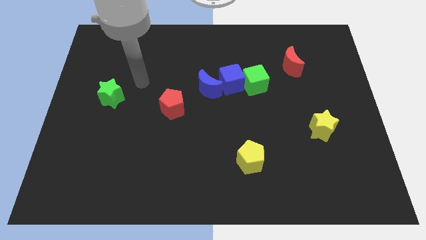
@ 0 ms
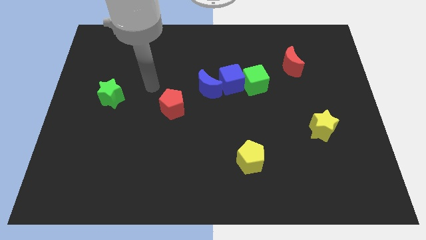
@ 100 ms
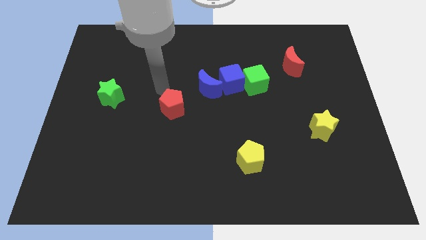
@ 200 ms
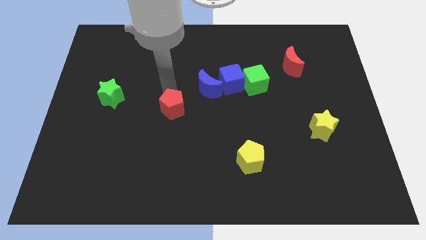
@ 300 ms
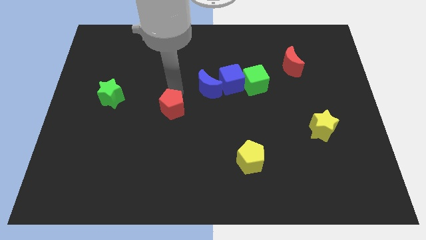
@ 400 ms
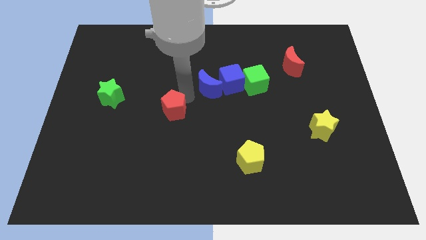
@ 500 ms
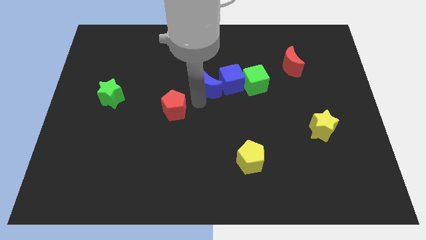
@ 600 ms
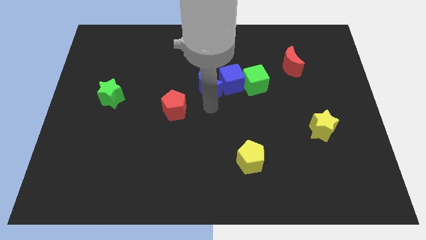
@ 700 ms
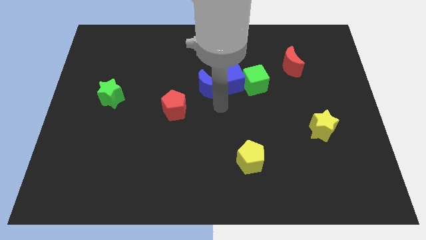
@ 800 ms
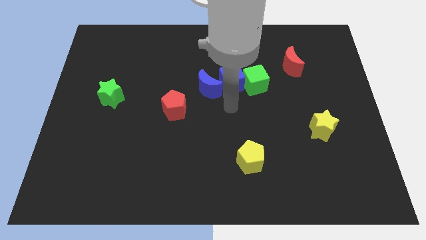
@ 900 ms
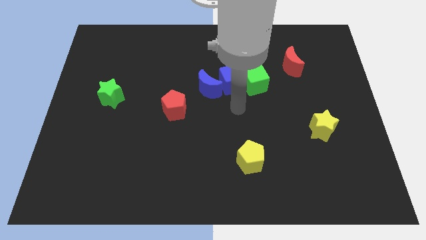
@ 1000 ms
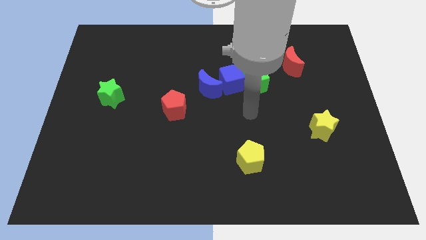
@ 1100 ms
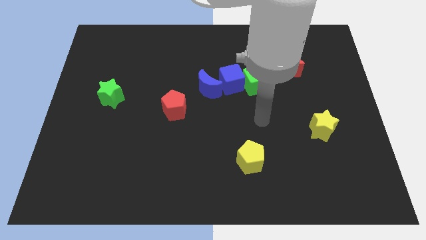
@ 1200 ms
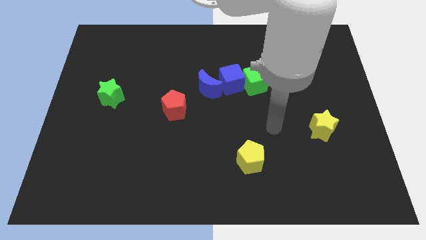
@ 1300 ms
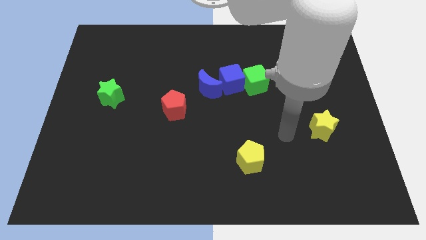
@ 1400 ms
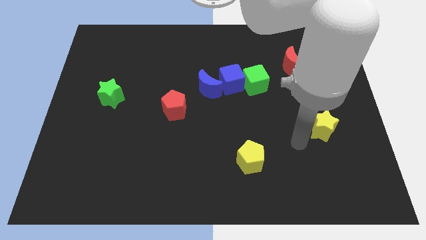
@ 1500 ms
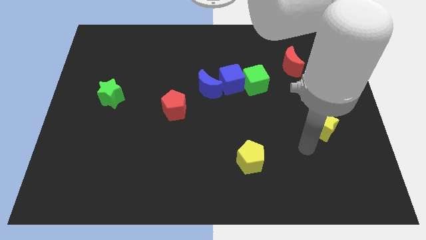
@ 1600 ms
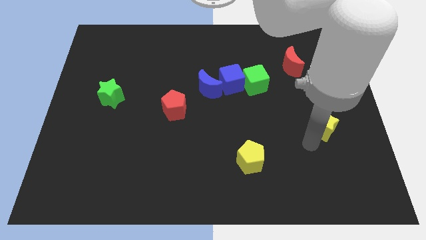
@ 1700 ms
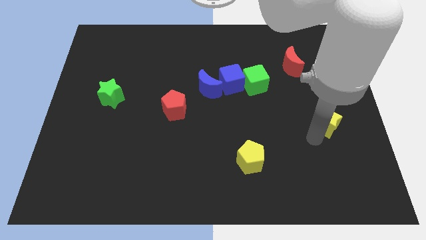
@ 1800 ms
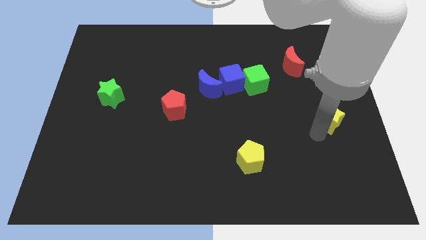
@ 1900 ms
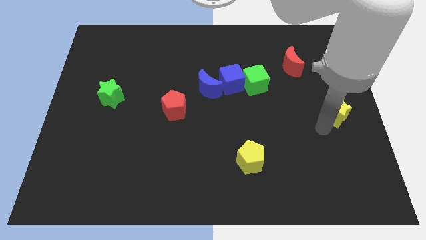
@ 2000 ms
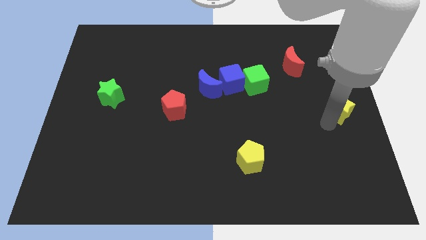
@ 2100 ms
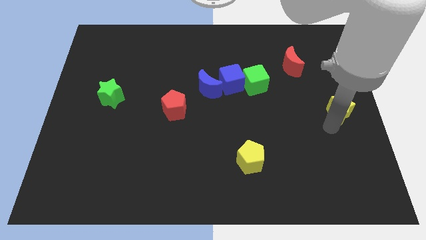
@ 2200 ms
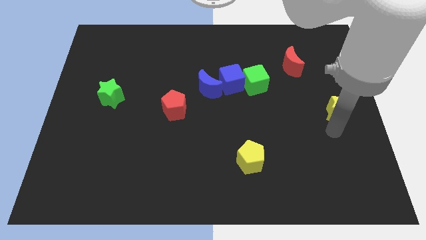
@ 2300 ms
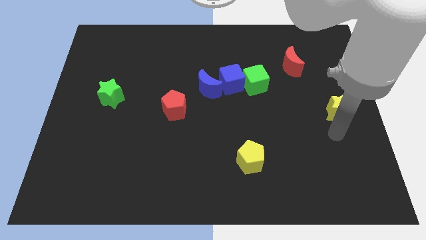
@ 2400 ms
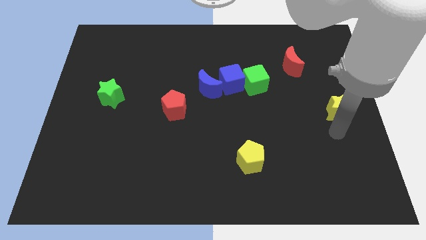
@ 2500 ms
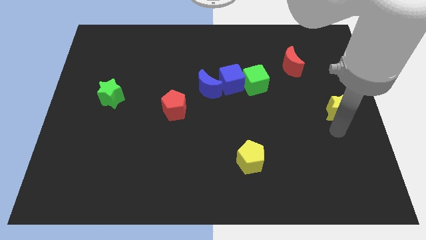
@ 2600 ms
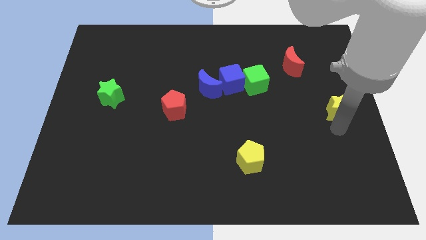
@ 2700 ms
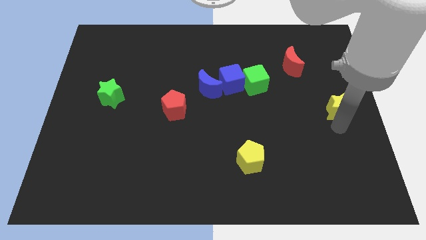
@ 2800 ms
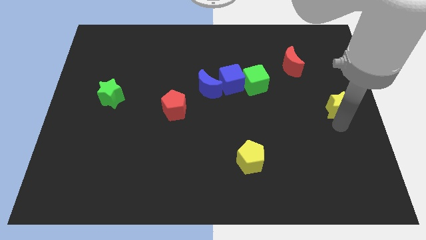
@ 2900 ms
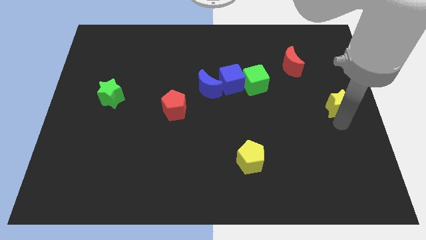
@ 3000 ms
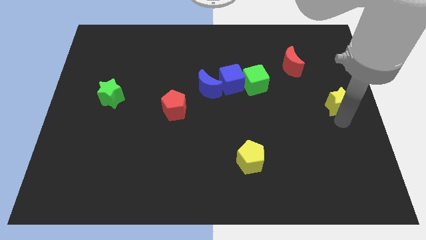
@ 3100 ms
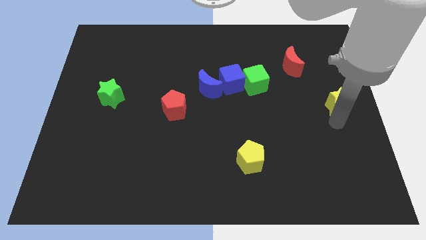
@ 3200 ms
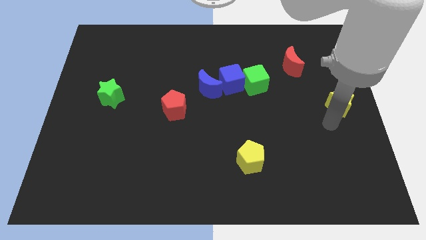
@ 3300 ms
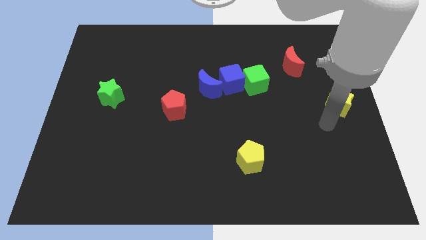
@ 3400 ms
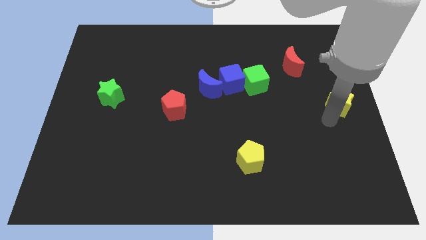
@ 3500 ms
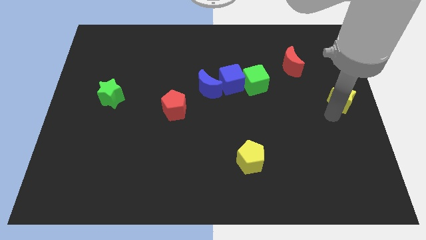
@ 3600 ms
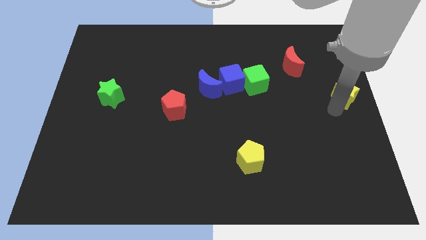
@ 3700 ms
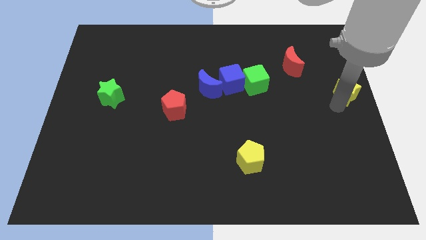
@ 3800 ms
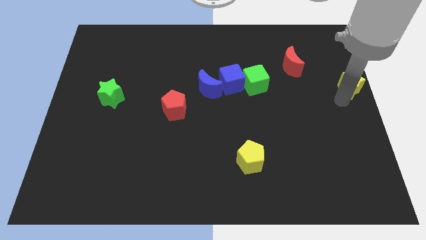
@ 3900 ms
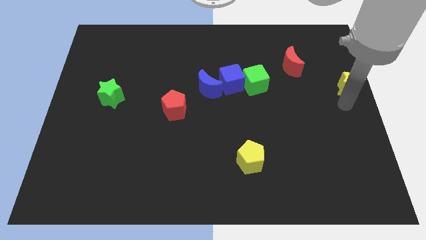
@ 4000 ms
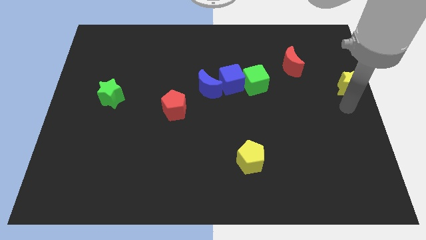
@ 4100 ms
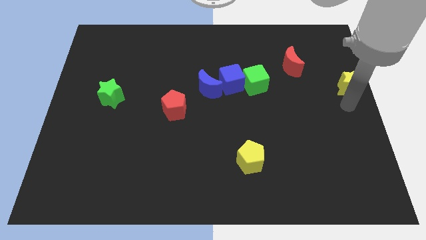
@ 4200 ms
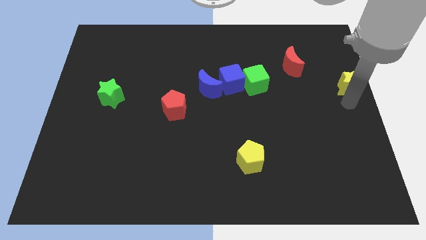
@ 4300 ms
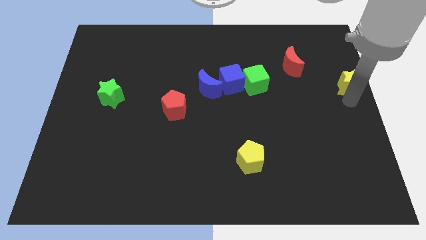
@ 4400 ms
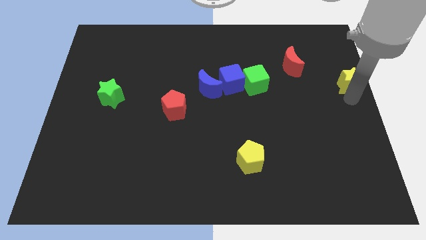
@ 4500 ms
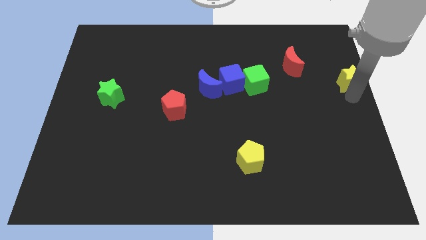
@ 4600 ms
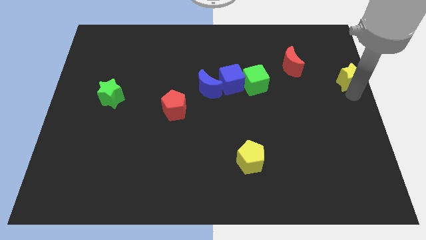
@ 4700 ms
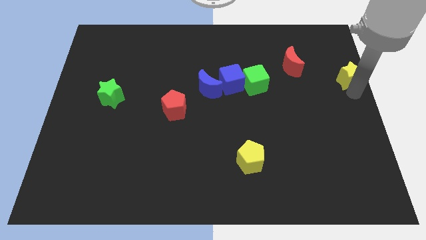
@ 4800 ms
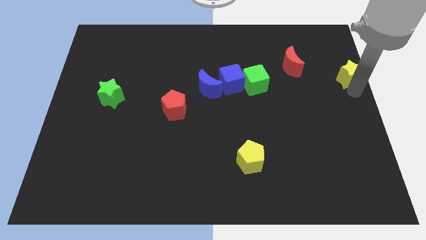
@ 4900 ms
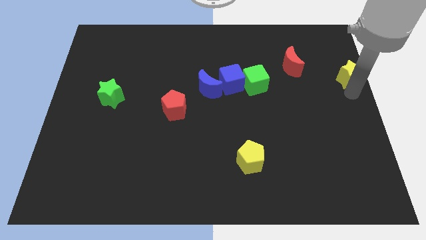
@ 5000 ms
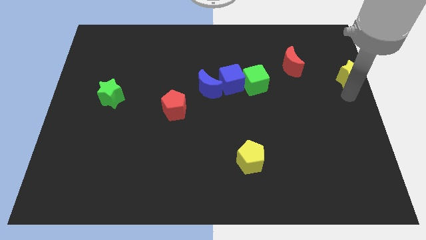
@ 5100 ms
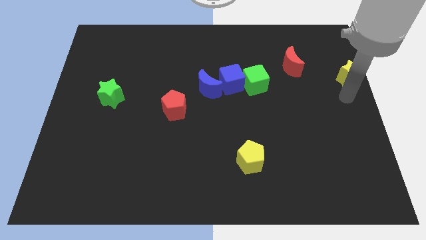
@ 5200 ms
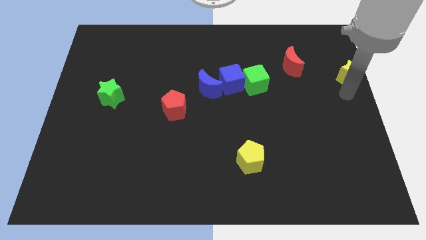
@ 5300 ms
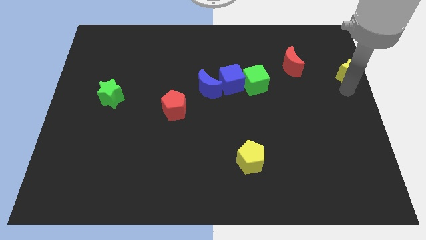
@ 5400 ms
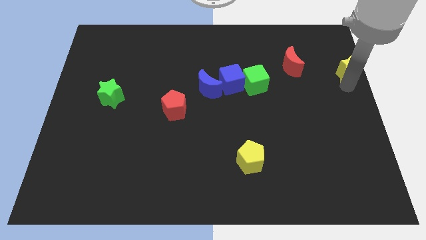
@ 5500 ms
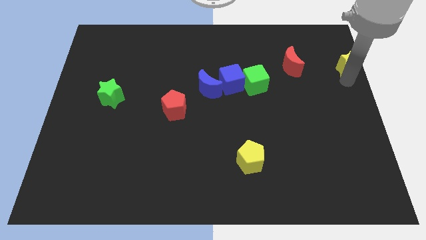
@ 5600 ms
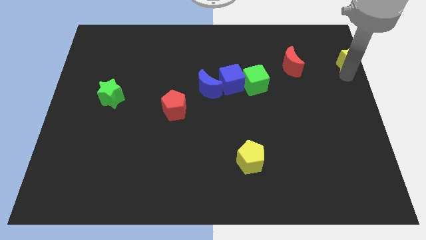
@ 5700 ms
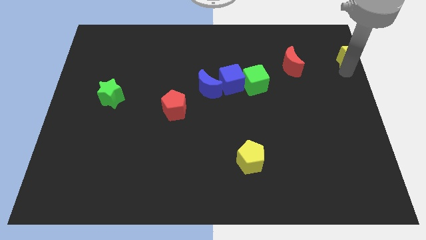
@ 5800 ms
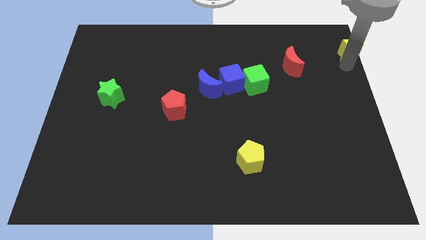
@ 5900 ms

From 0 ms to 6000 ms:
put the yellow star to the top right

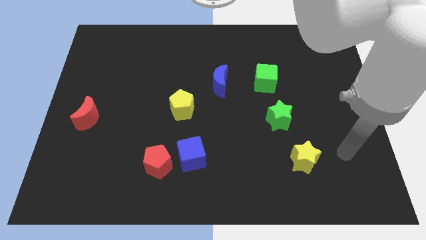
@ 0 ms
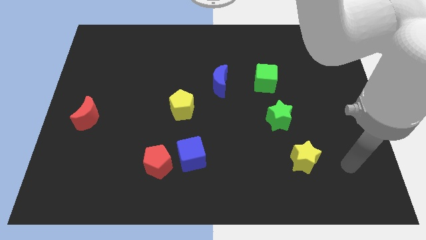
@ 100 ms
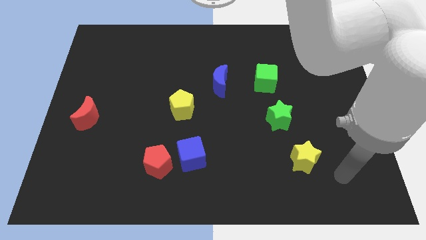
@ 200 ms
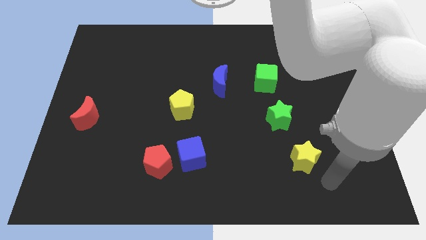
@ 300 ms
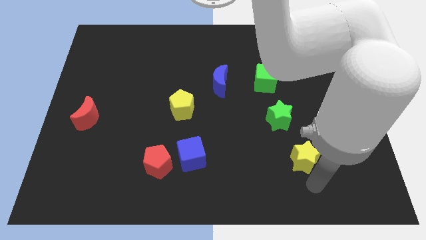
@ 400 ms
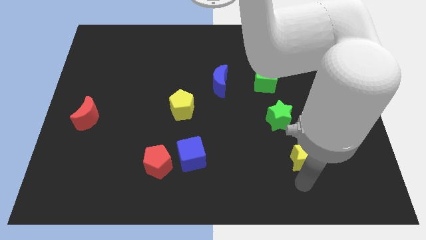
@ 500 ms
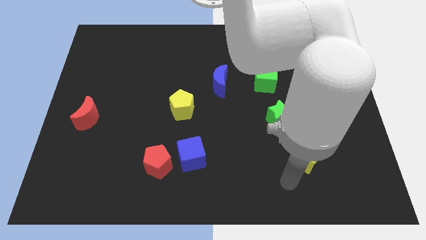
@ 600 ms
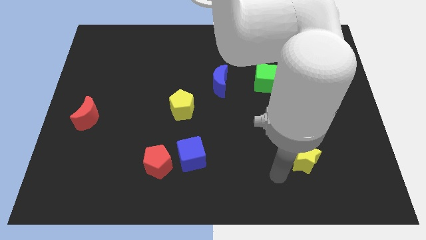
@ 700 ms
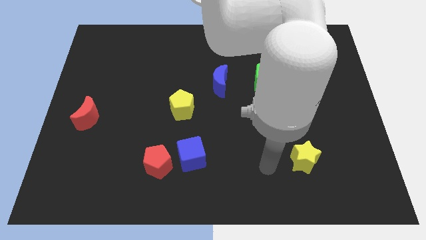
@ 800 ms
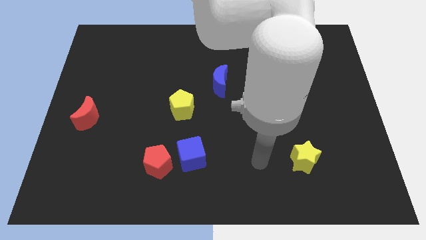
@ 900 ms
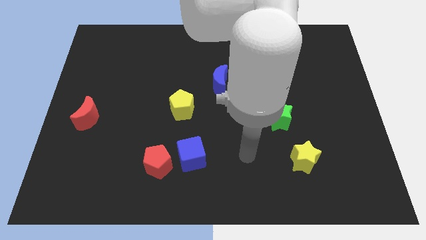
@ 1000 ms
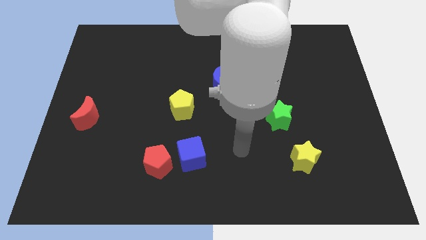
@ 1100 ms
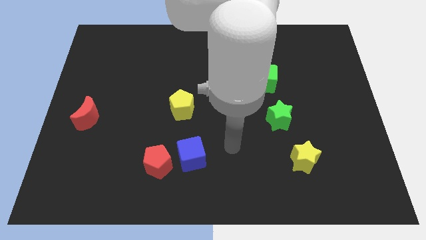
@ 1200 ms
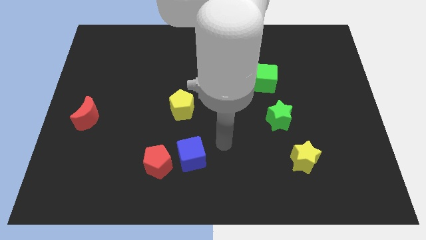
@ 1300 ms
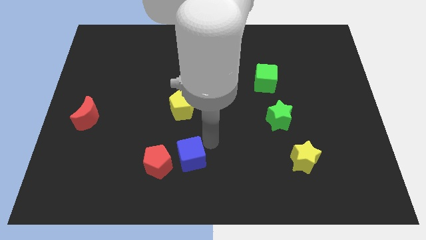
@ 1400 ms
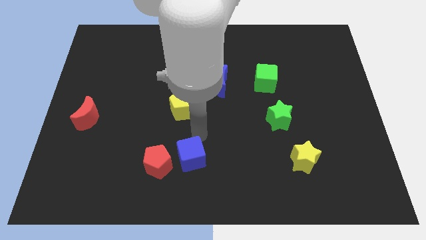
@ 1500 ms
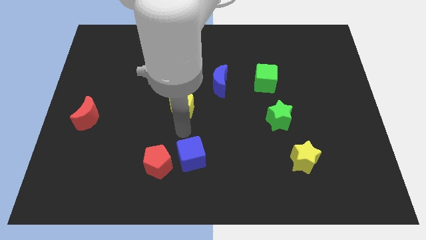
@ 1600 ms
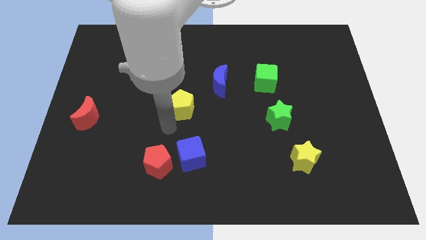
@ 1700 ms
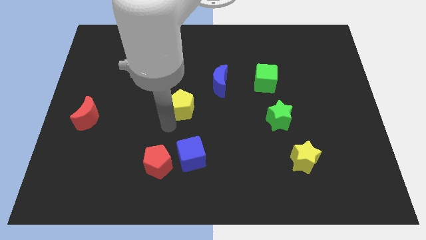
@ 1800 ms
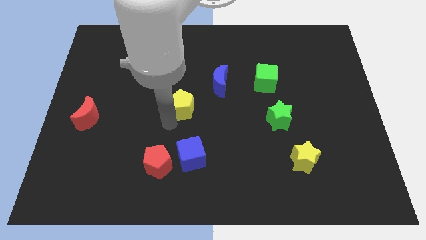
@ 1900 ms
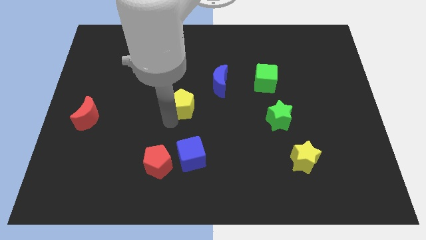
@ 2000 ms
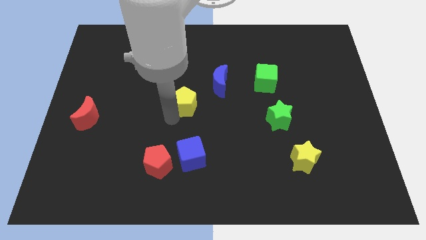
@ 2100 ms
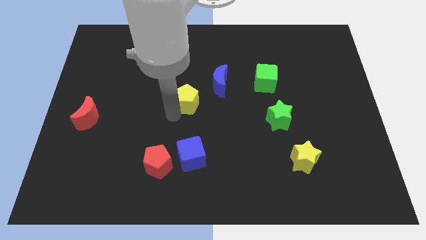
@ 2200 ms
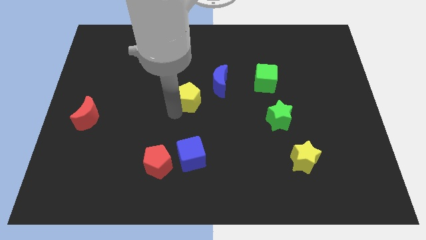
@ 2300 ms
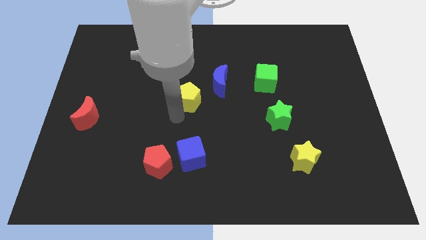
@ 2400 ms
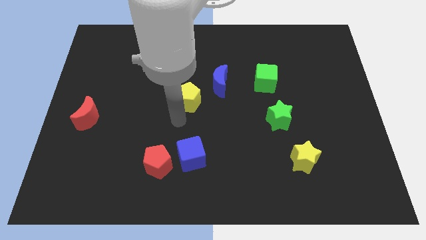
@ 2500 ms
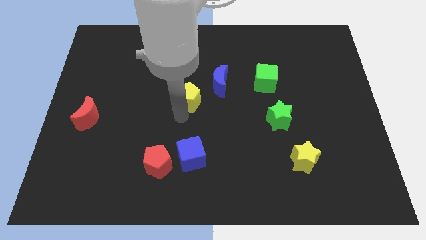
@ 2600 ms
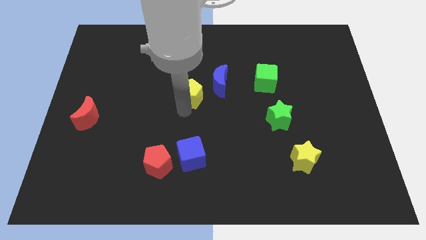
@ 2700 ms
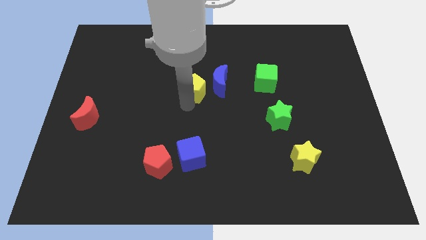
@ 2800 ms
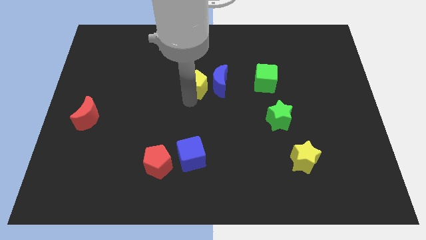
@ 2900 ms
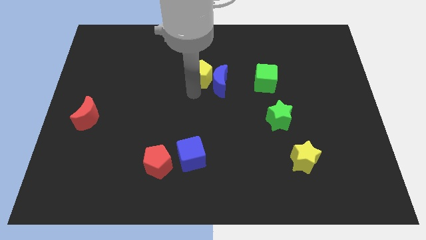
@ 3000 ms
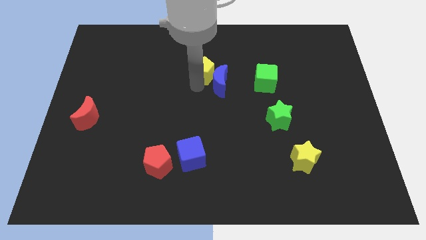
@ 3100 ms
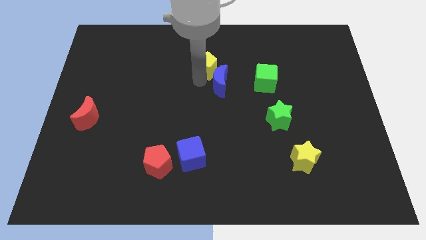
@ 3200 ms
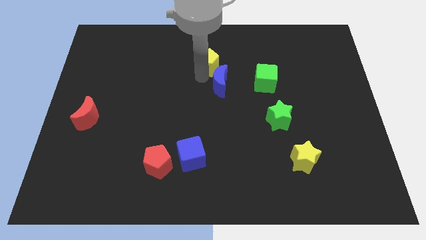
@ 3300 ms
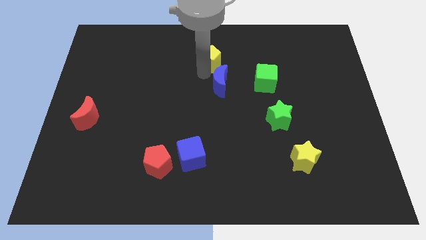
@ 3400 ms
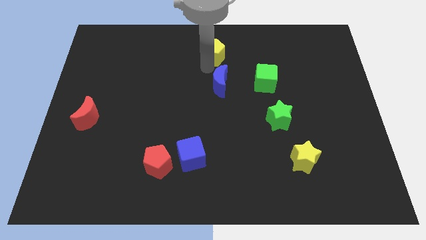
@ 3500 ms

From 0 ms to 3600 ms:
slide the yellow pentagon to the towards your base
